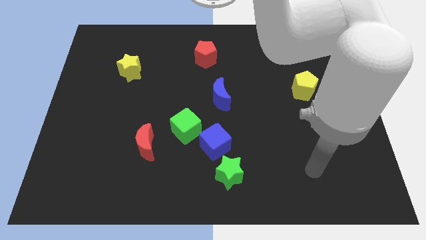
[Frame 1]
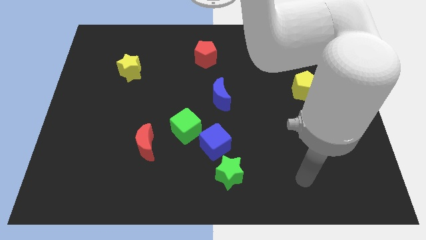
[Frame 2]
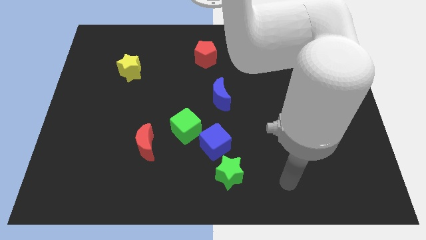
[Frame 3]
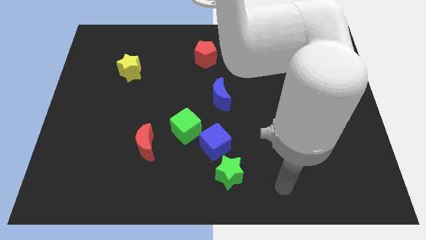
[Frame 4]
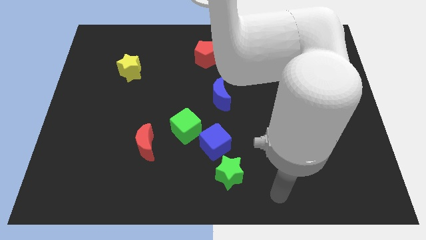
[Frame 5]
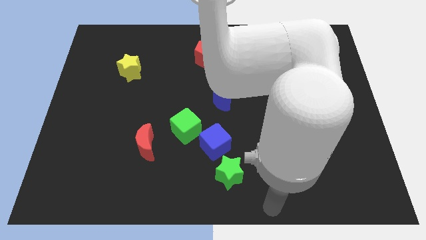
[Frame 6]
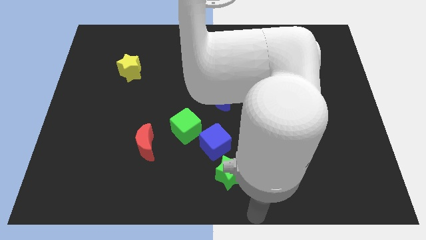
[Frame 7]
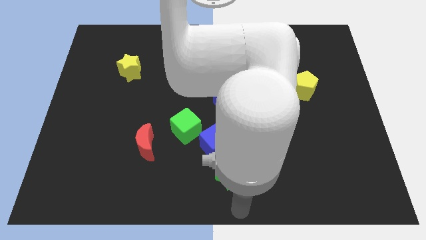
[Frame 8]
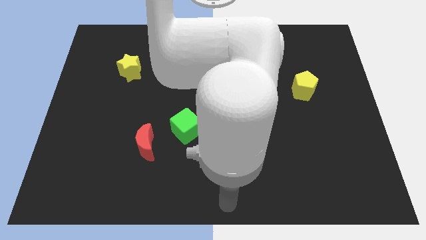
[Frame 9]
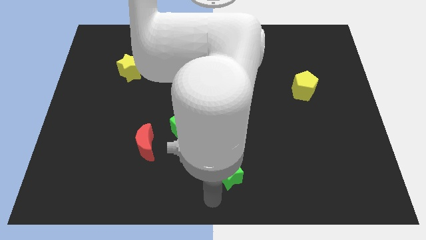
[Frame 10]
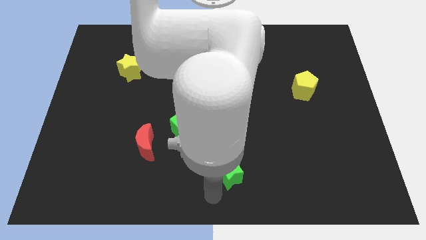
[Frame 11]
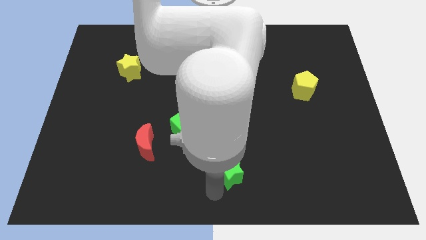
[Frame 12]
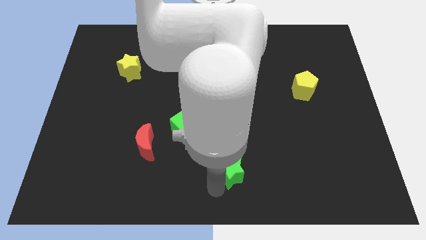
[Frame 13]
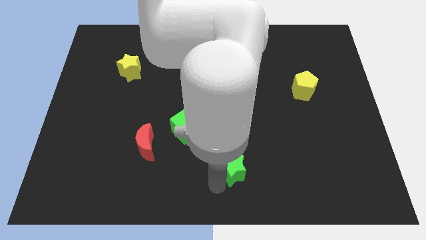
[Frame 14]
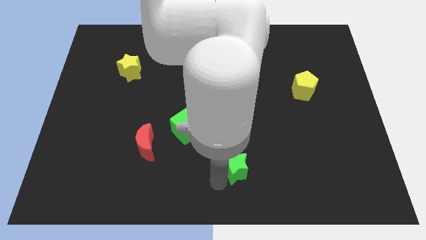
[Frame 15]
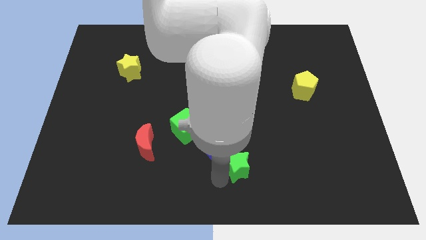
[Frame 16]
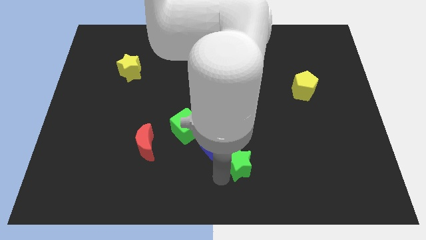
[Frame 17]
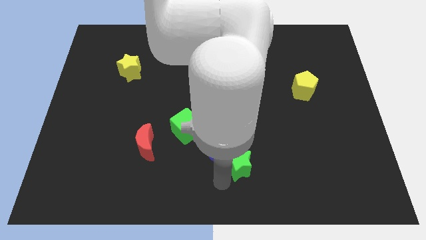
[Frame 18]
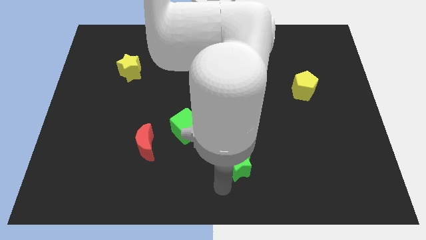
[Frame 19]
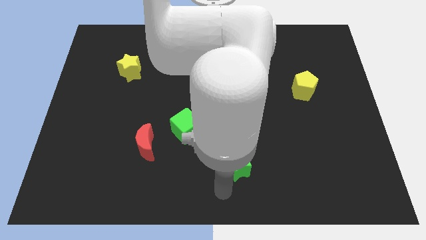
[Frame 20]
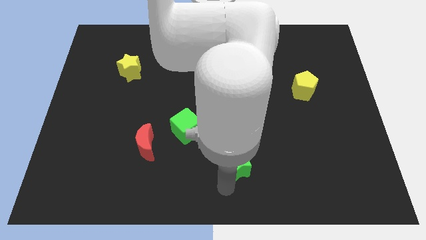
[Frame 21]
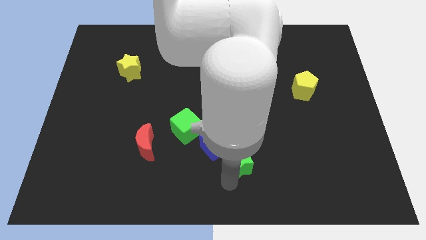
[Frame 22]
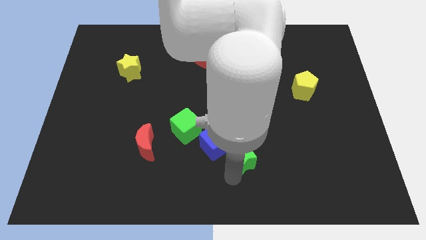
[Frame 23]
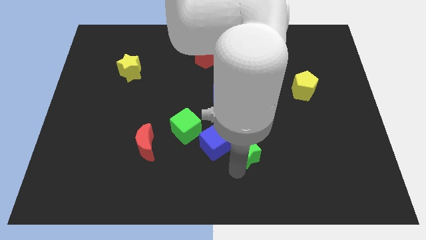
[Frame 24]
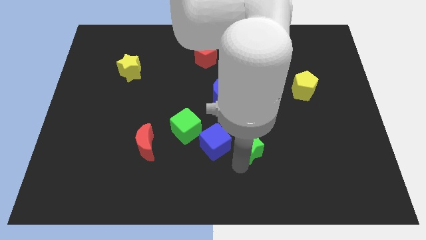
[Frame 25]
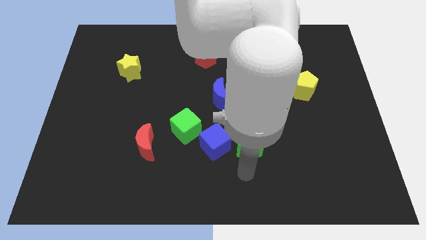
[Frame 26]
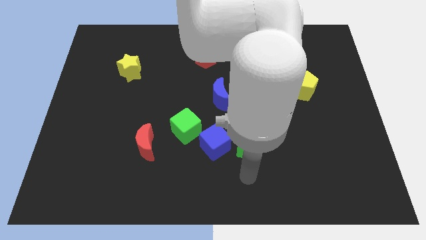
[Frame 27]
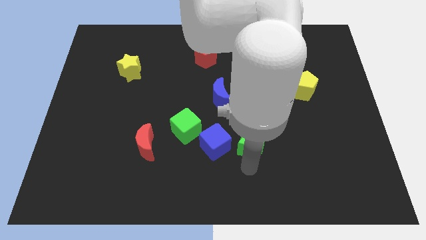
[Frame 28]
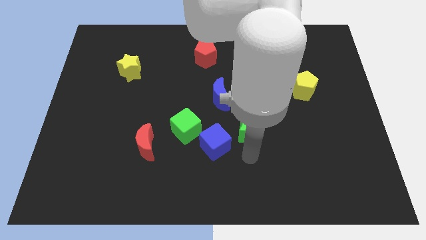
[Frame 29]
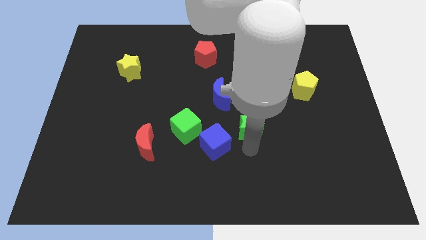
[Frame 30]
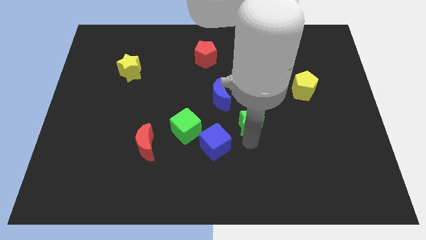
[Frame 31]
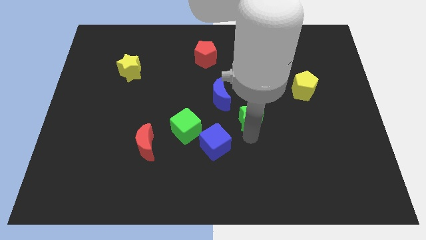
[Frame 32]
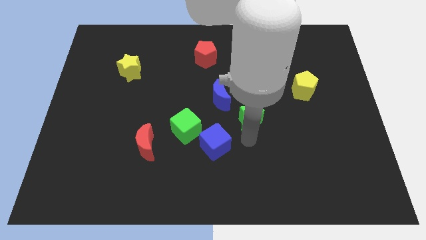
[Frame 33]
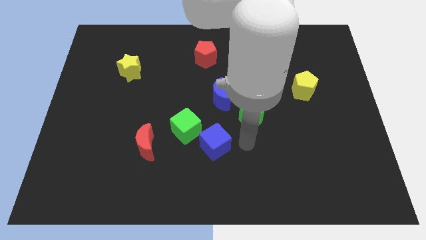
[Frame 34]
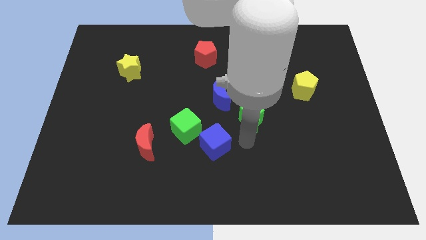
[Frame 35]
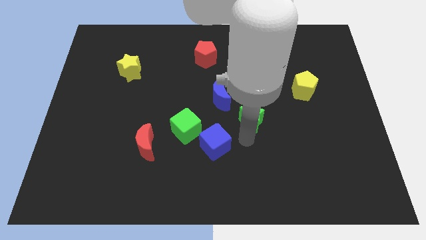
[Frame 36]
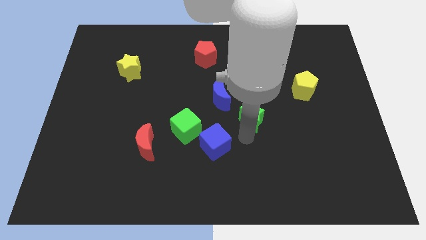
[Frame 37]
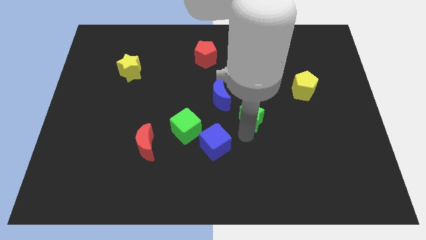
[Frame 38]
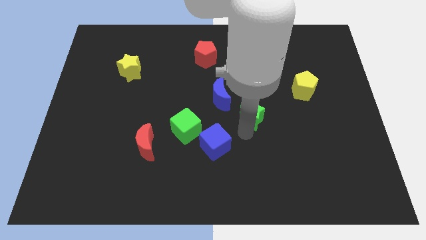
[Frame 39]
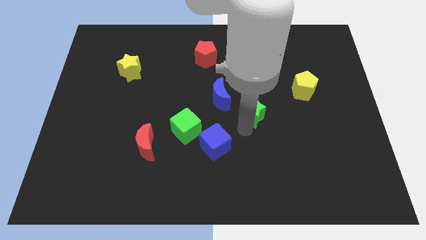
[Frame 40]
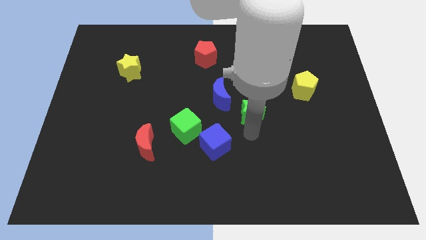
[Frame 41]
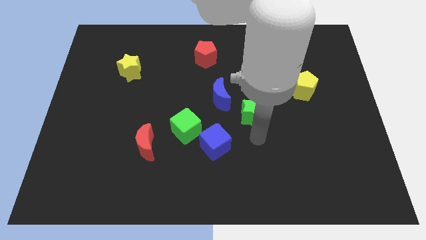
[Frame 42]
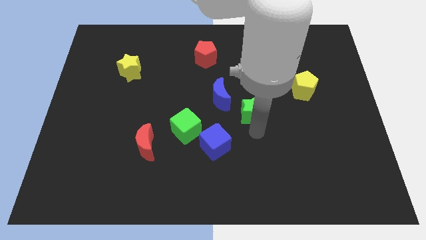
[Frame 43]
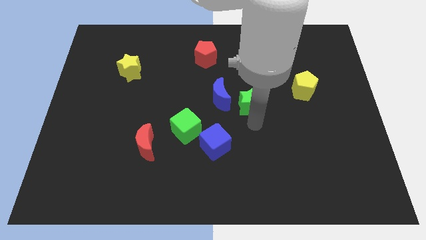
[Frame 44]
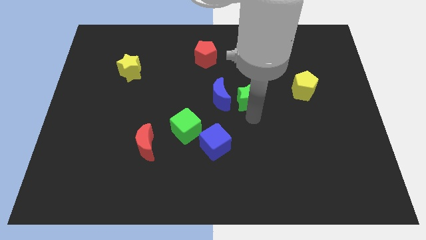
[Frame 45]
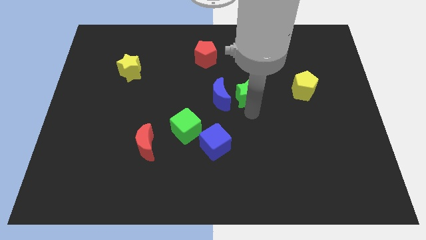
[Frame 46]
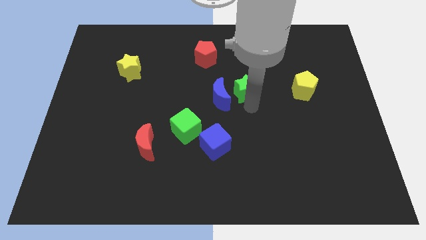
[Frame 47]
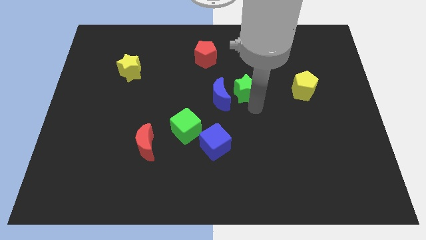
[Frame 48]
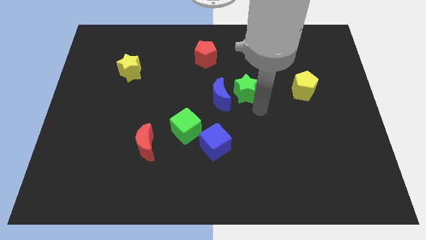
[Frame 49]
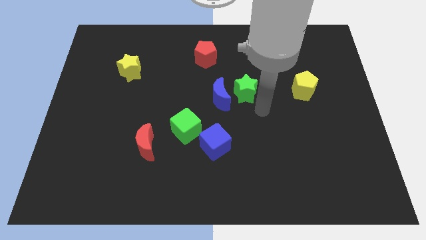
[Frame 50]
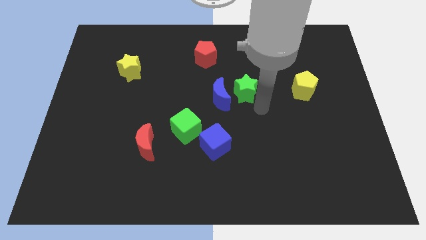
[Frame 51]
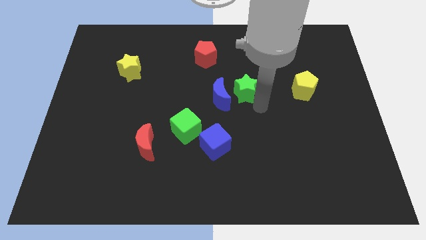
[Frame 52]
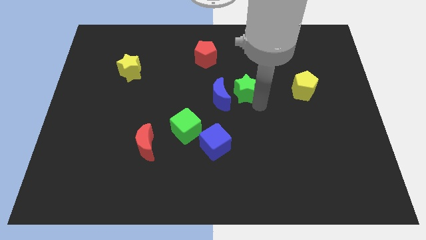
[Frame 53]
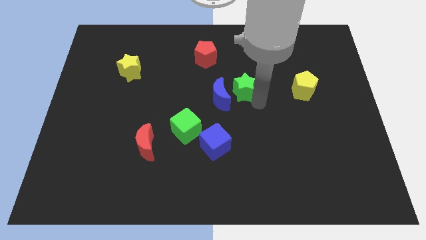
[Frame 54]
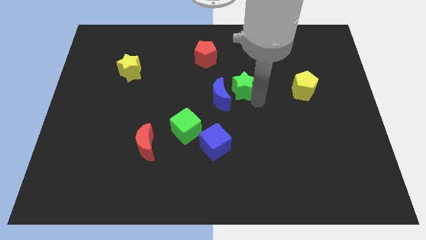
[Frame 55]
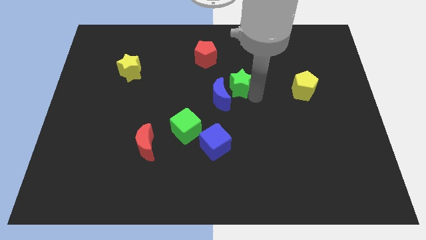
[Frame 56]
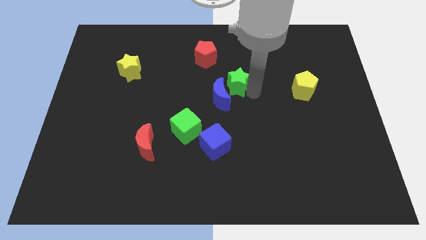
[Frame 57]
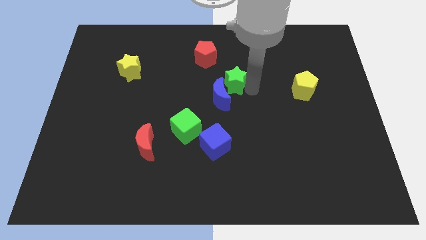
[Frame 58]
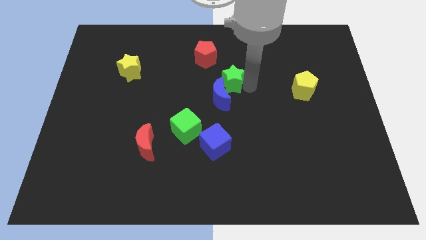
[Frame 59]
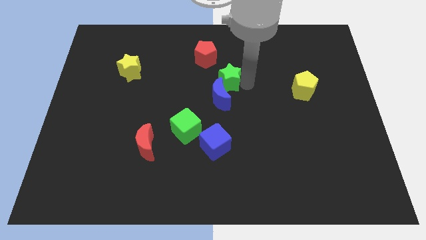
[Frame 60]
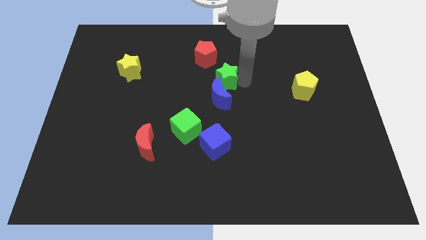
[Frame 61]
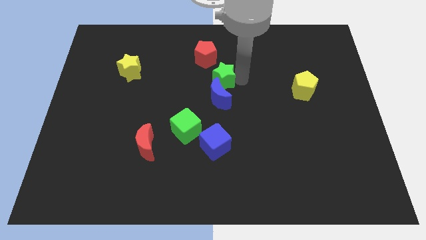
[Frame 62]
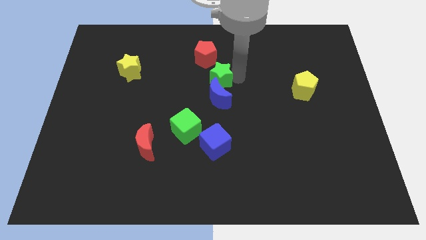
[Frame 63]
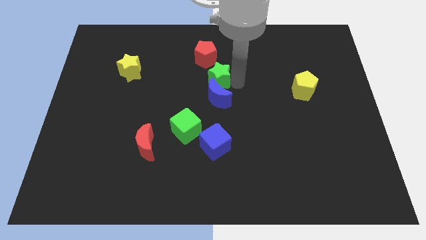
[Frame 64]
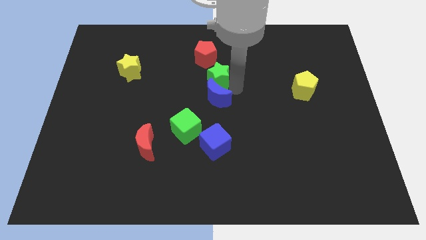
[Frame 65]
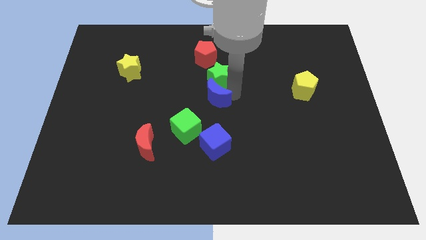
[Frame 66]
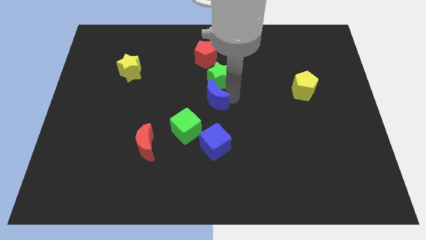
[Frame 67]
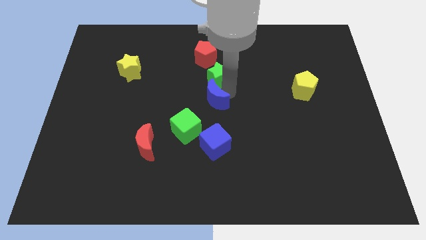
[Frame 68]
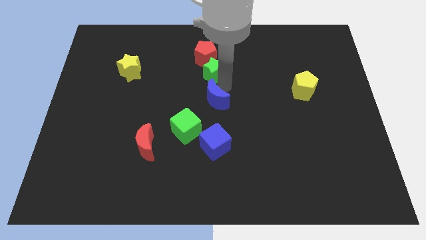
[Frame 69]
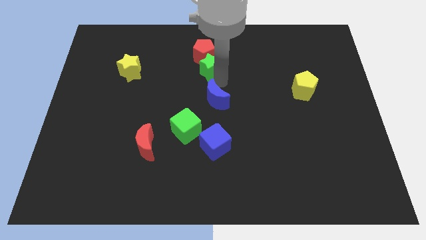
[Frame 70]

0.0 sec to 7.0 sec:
move the green star to the red pentagon
